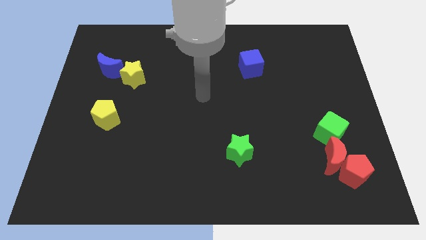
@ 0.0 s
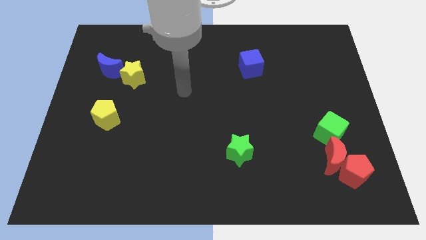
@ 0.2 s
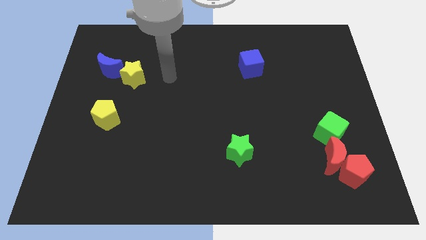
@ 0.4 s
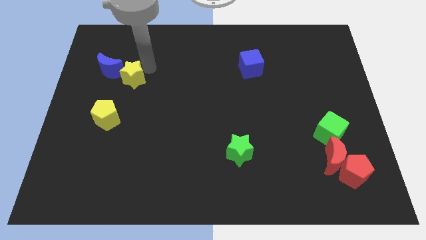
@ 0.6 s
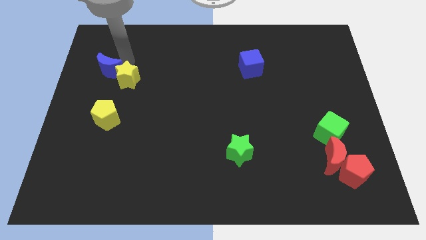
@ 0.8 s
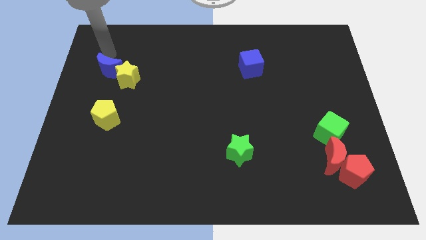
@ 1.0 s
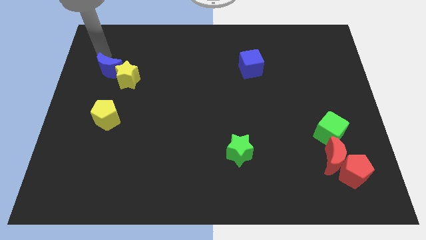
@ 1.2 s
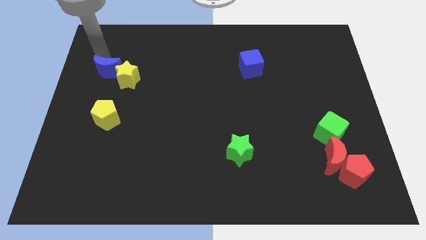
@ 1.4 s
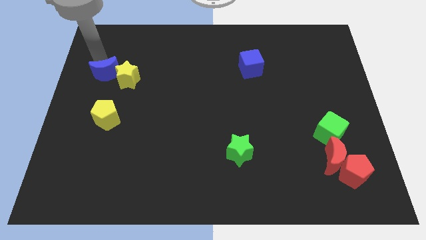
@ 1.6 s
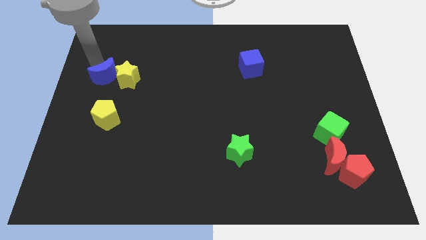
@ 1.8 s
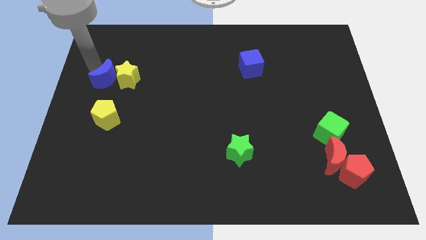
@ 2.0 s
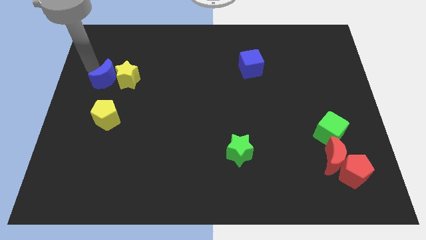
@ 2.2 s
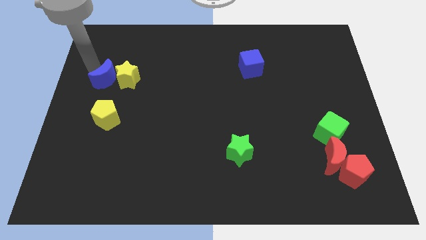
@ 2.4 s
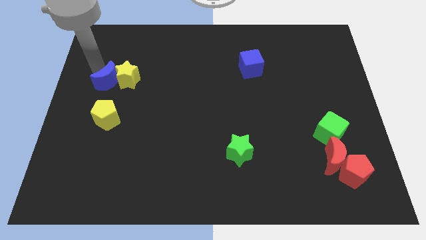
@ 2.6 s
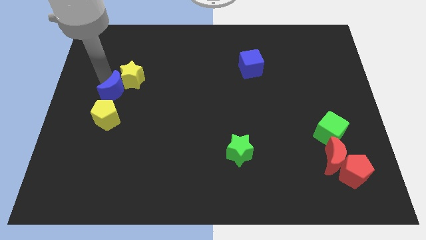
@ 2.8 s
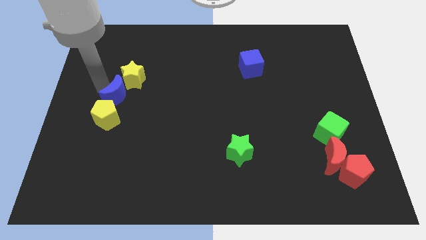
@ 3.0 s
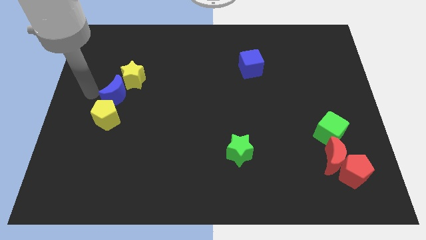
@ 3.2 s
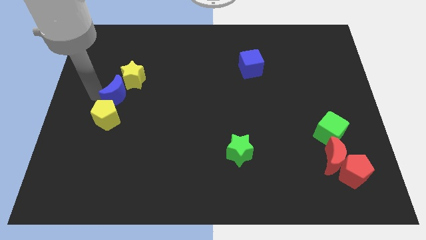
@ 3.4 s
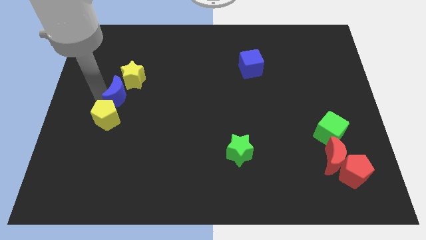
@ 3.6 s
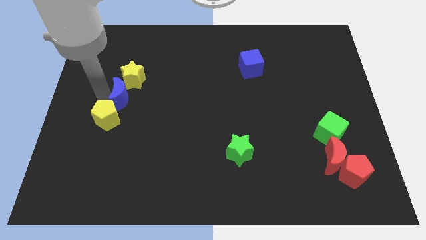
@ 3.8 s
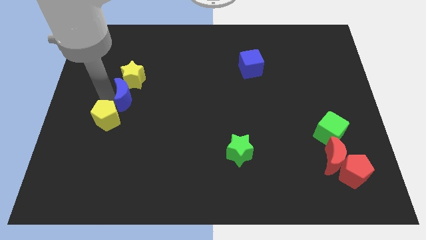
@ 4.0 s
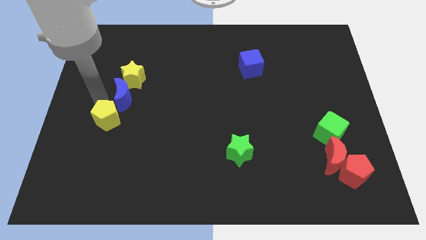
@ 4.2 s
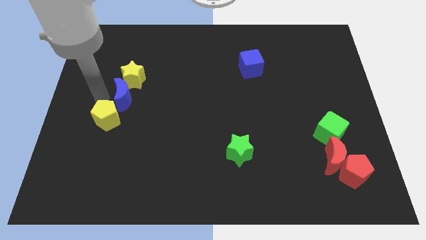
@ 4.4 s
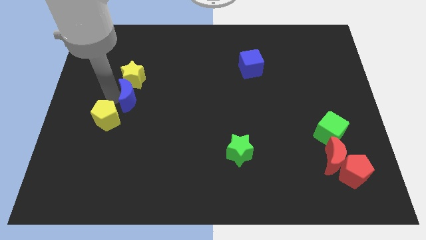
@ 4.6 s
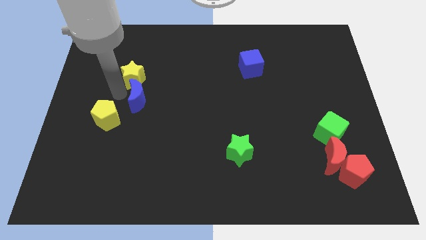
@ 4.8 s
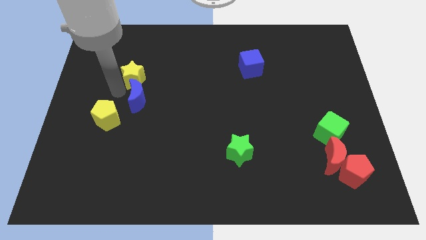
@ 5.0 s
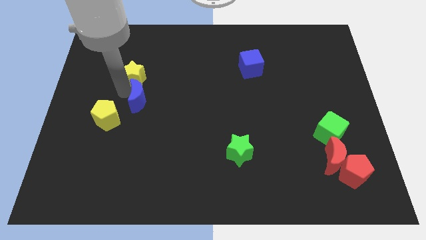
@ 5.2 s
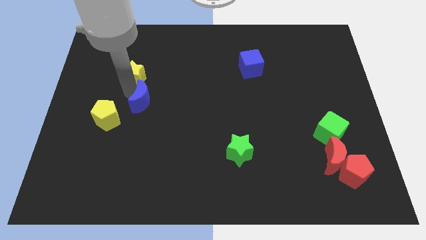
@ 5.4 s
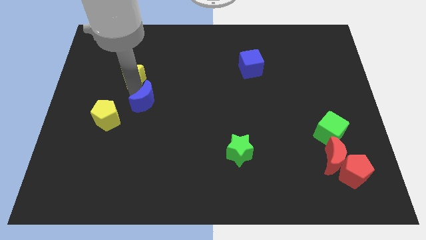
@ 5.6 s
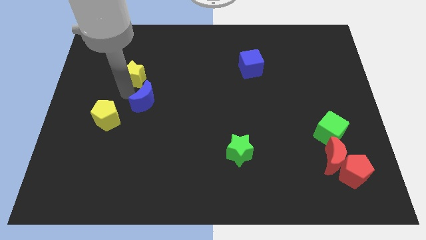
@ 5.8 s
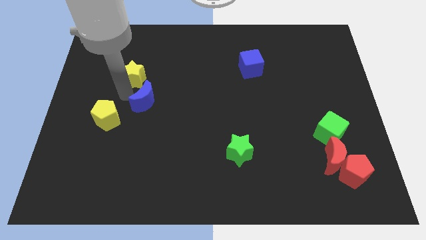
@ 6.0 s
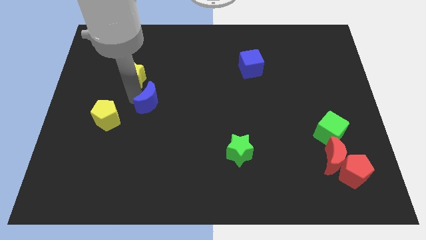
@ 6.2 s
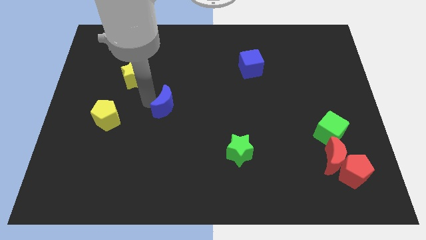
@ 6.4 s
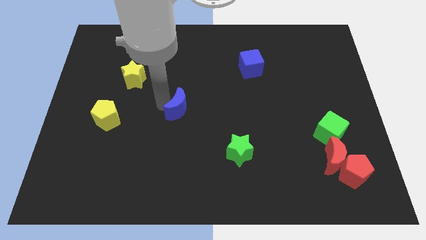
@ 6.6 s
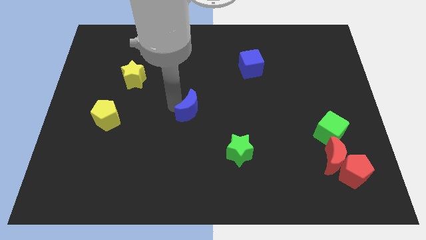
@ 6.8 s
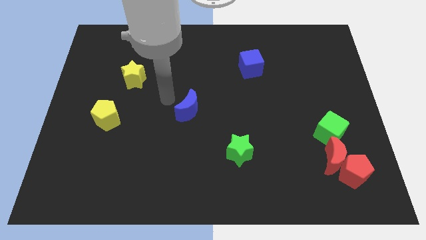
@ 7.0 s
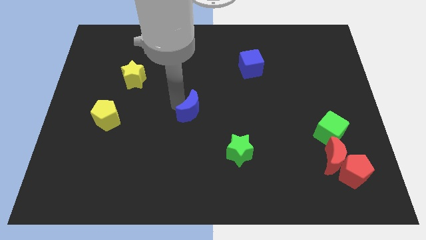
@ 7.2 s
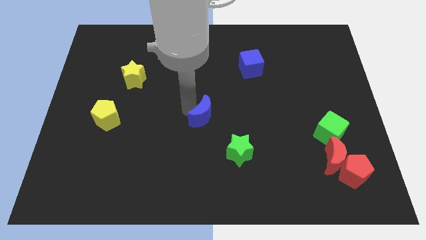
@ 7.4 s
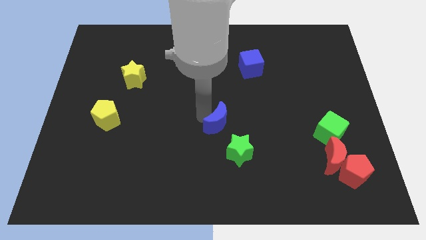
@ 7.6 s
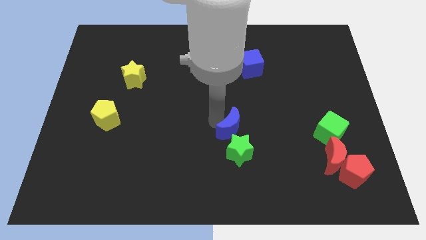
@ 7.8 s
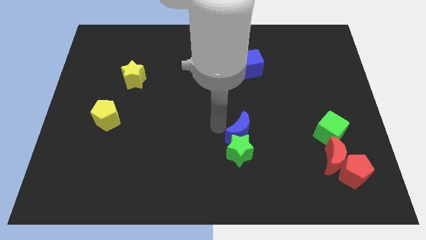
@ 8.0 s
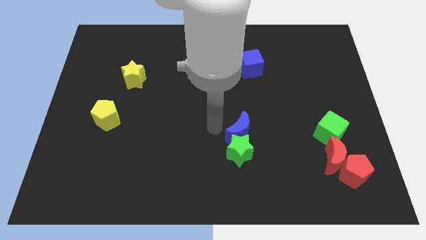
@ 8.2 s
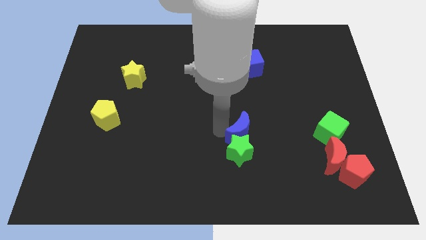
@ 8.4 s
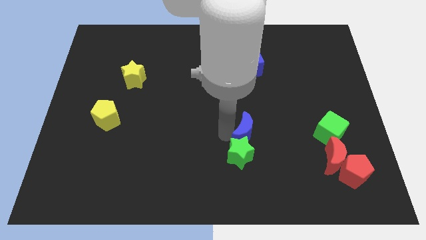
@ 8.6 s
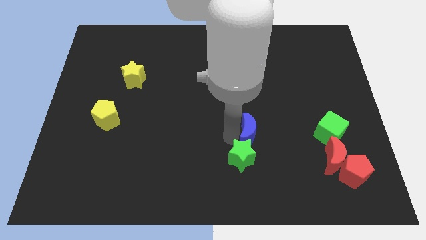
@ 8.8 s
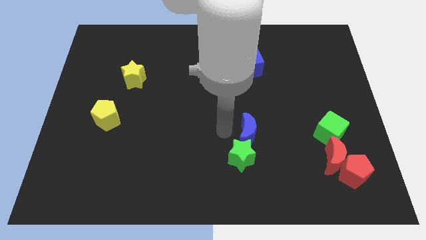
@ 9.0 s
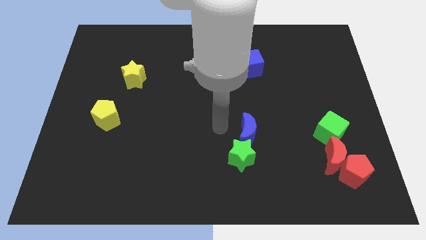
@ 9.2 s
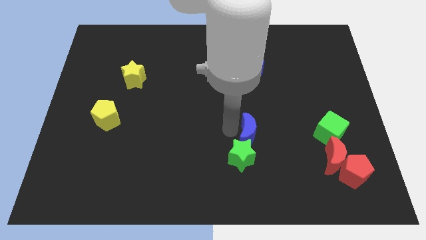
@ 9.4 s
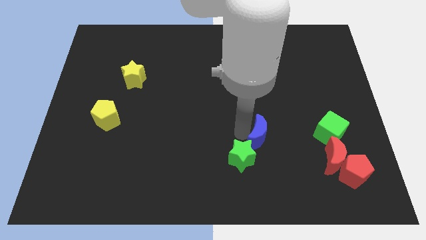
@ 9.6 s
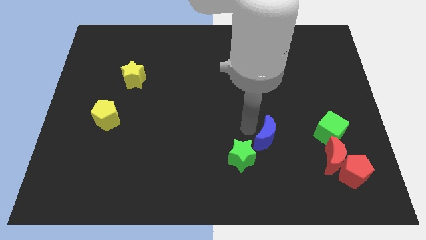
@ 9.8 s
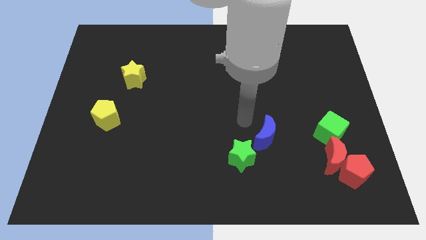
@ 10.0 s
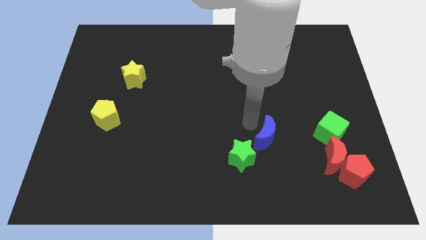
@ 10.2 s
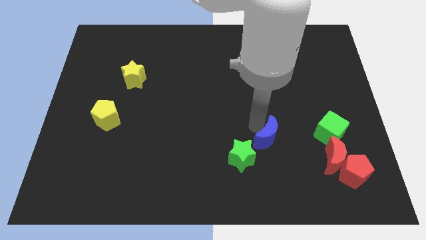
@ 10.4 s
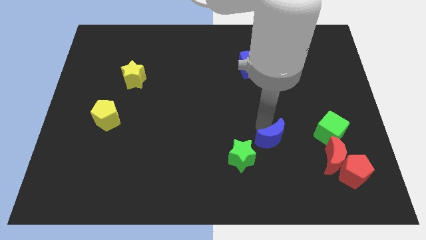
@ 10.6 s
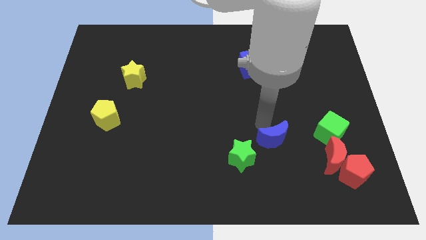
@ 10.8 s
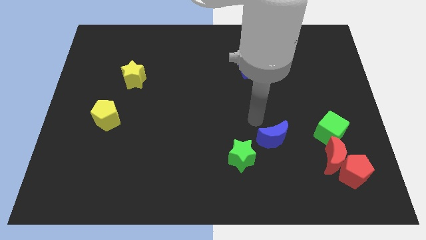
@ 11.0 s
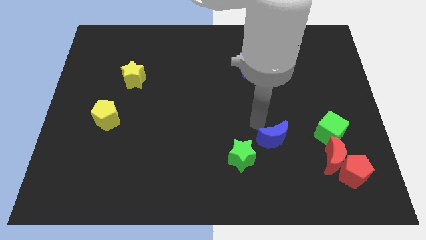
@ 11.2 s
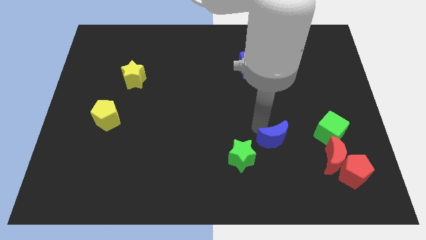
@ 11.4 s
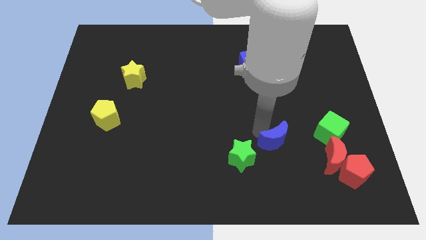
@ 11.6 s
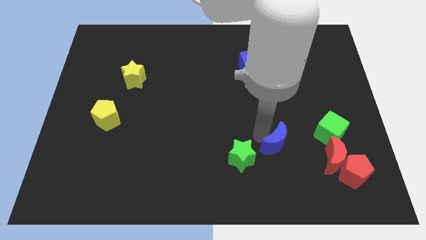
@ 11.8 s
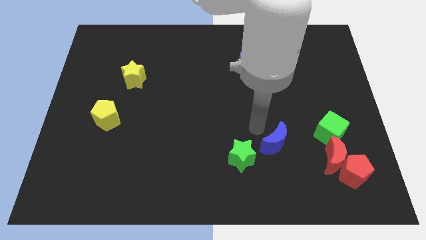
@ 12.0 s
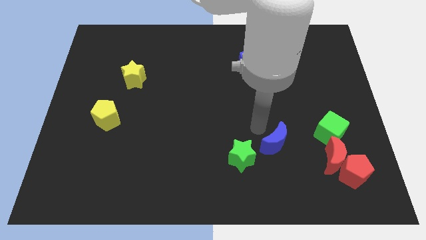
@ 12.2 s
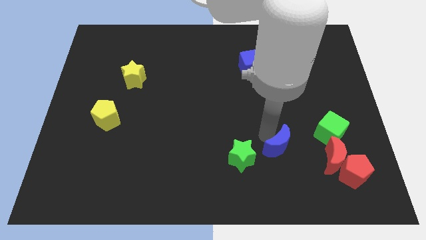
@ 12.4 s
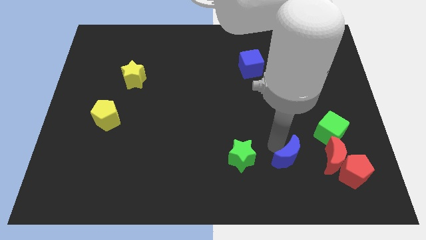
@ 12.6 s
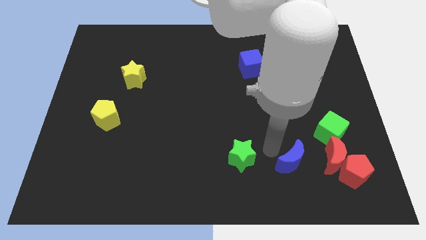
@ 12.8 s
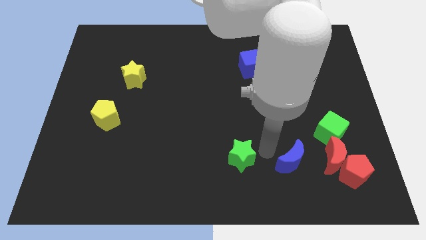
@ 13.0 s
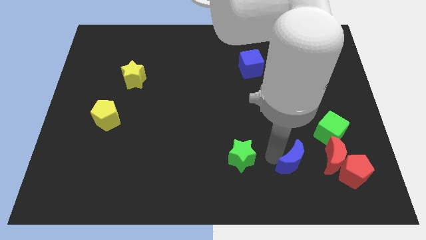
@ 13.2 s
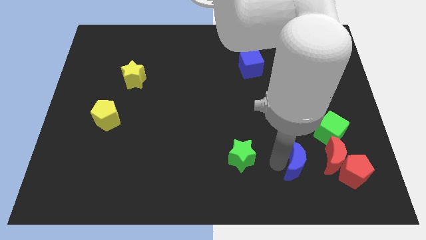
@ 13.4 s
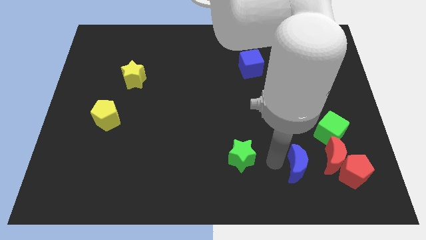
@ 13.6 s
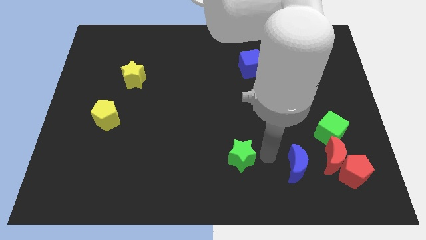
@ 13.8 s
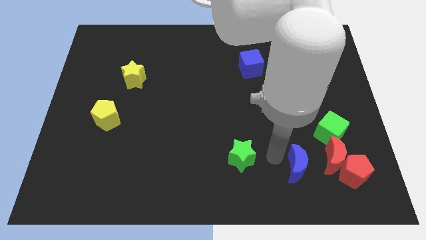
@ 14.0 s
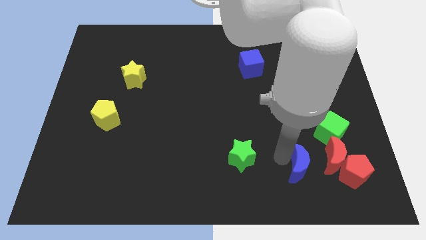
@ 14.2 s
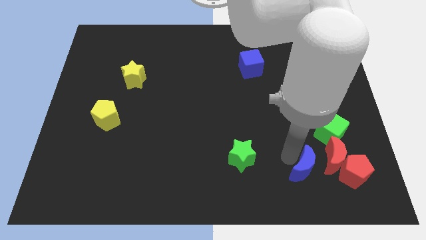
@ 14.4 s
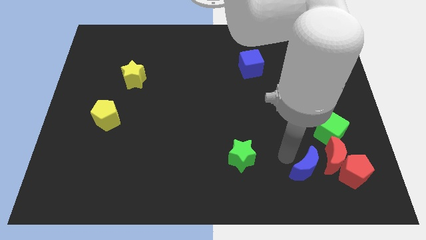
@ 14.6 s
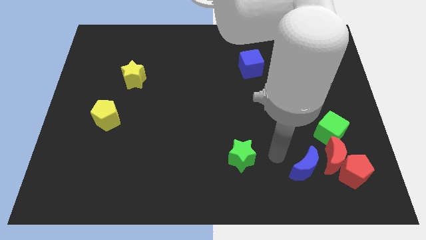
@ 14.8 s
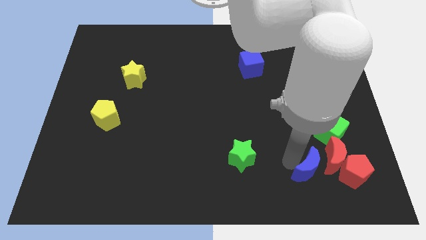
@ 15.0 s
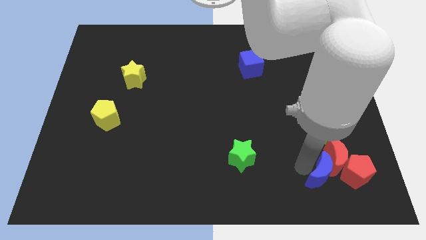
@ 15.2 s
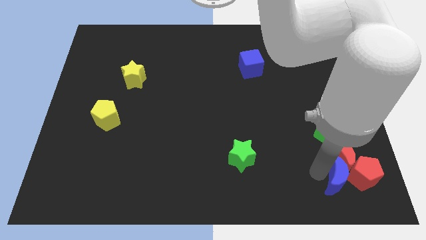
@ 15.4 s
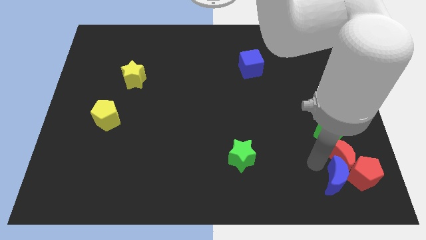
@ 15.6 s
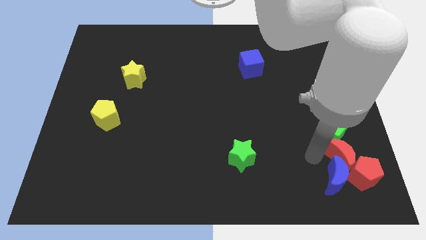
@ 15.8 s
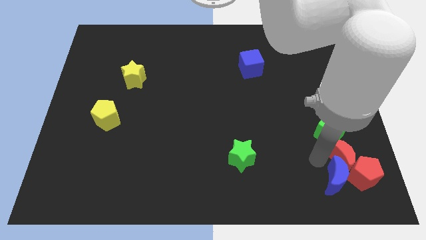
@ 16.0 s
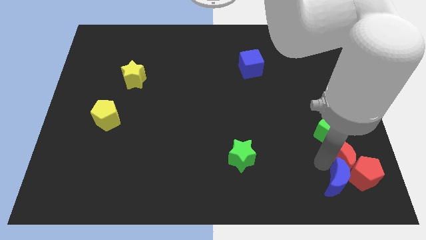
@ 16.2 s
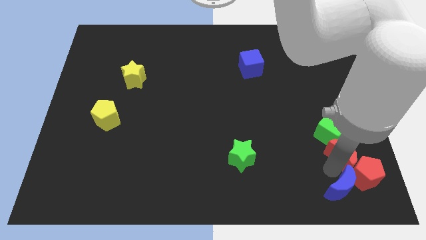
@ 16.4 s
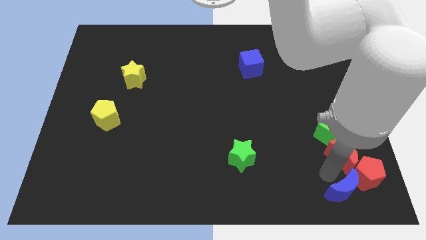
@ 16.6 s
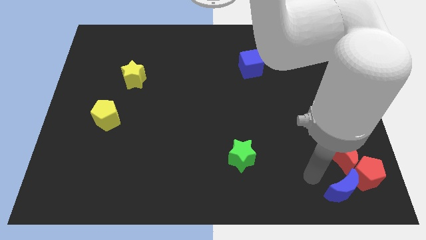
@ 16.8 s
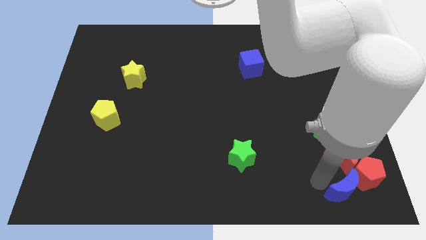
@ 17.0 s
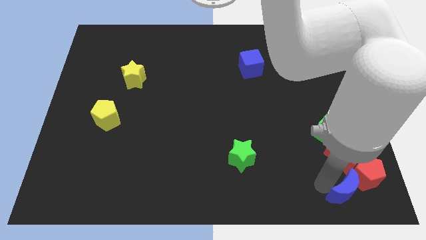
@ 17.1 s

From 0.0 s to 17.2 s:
push the blue moon to the bottom right
